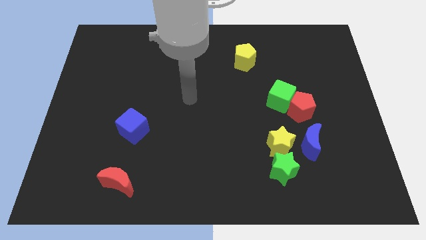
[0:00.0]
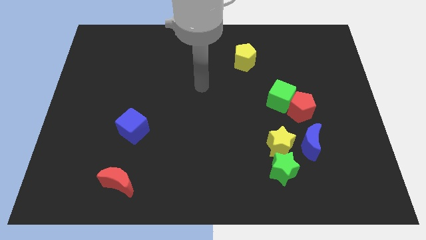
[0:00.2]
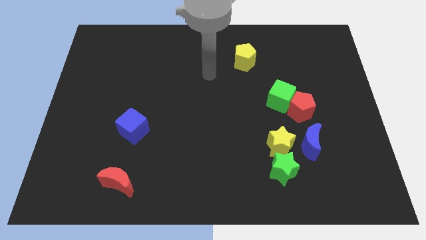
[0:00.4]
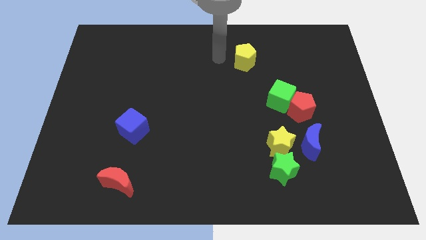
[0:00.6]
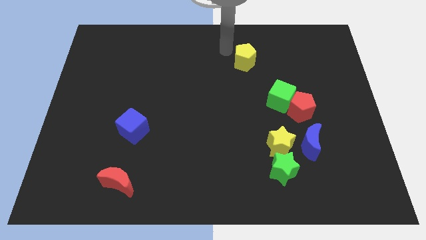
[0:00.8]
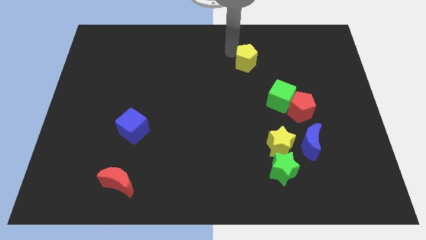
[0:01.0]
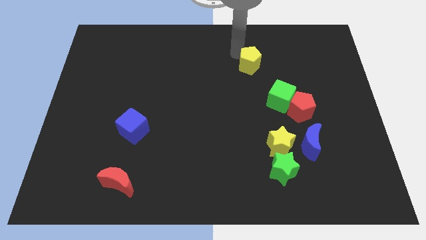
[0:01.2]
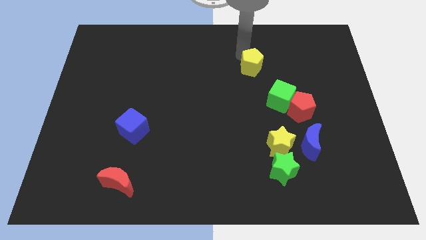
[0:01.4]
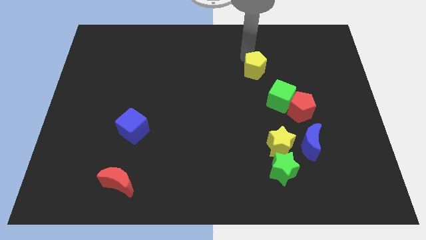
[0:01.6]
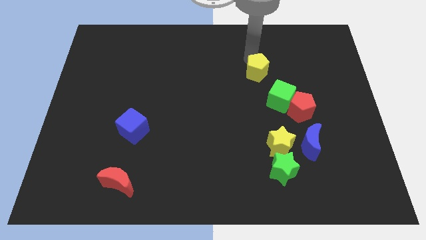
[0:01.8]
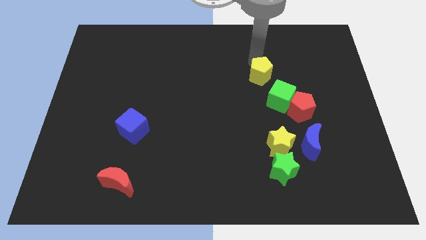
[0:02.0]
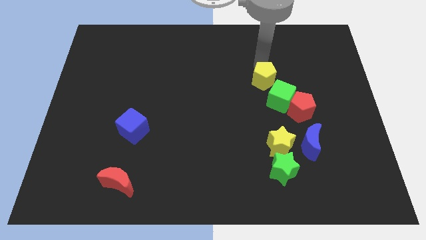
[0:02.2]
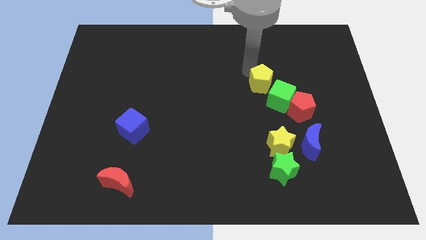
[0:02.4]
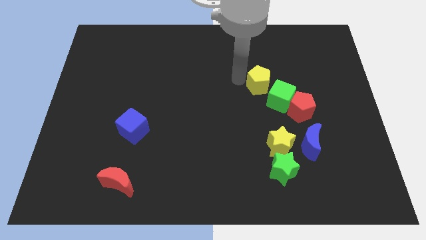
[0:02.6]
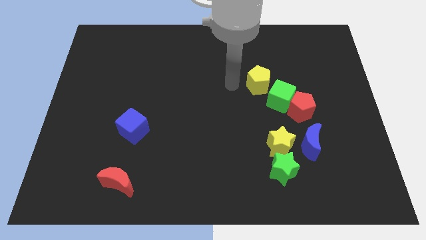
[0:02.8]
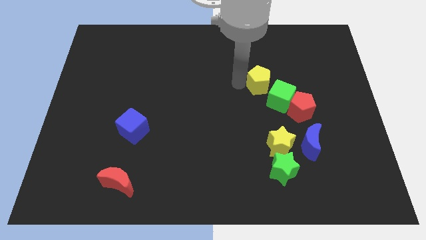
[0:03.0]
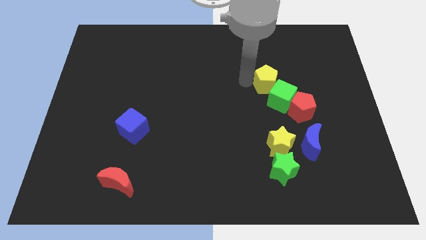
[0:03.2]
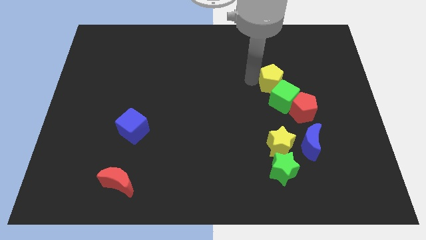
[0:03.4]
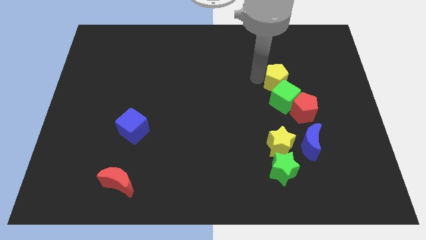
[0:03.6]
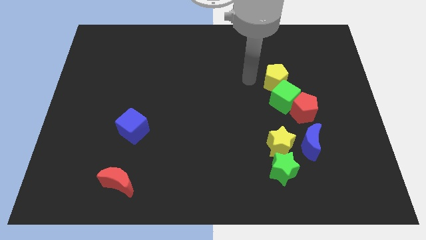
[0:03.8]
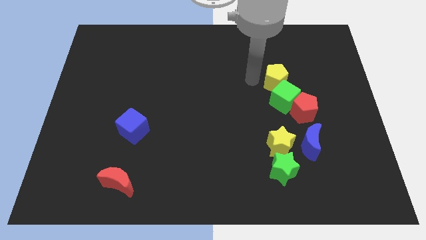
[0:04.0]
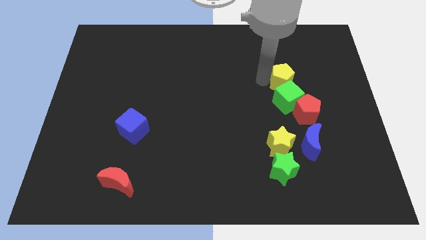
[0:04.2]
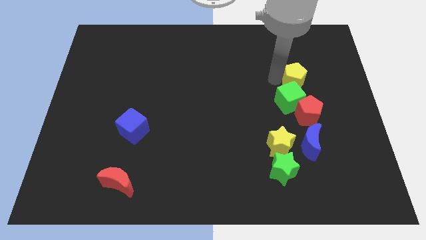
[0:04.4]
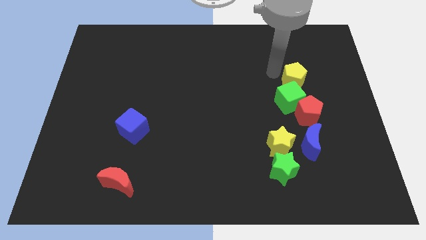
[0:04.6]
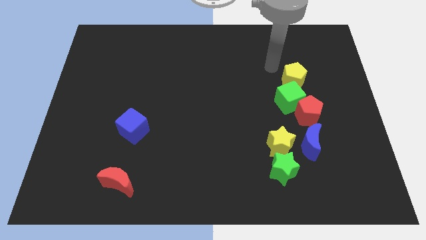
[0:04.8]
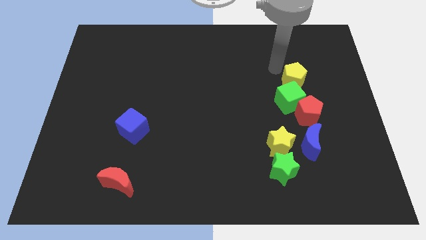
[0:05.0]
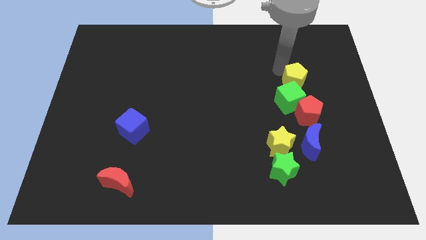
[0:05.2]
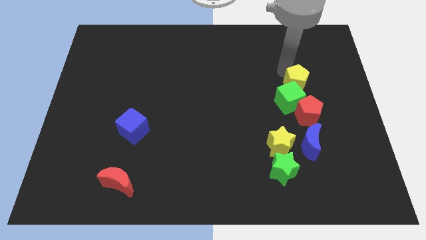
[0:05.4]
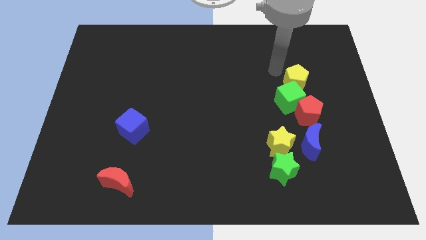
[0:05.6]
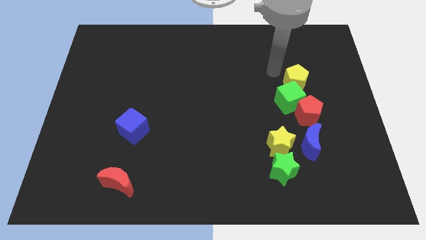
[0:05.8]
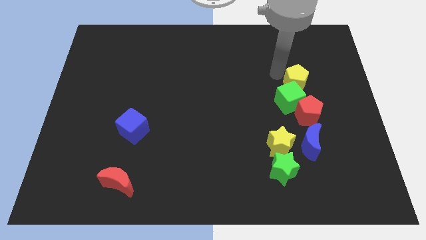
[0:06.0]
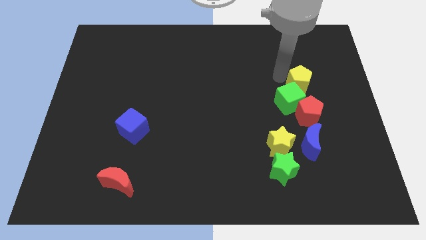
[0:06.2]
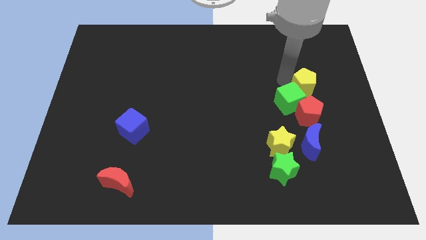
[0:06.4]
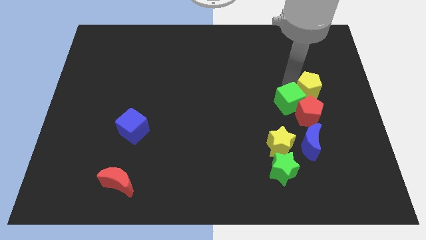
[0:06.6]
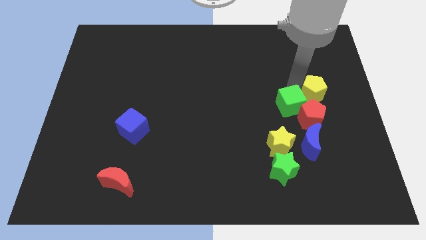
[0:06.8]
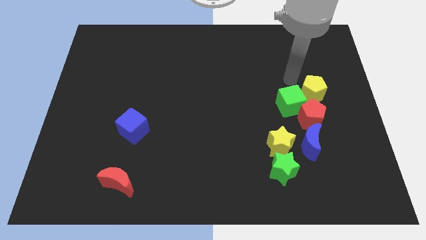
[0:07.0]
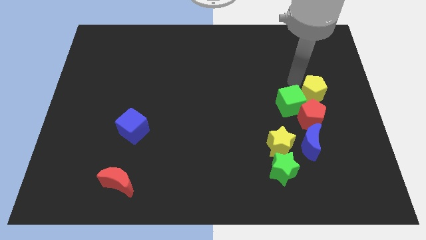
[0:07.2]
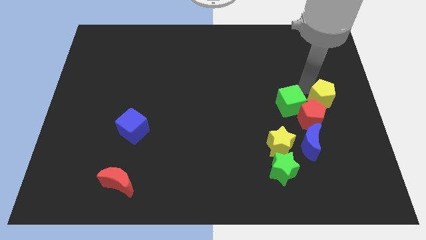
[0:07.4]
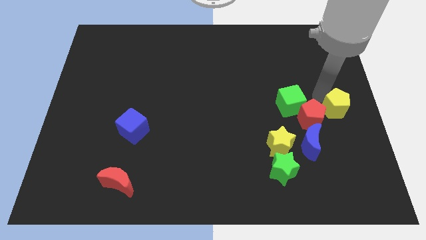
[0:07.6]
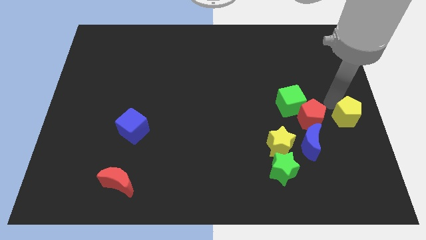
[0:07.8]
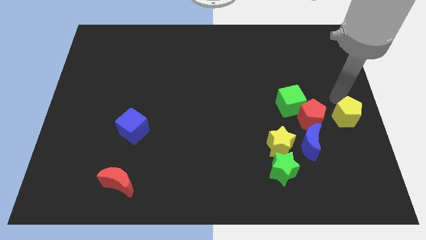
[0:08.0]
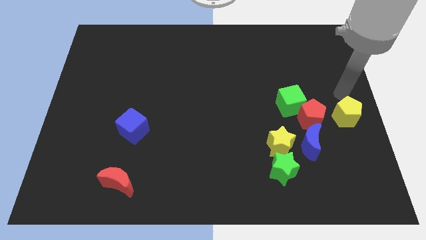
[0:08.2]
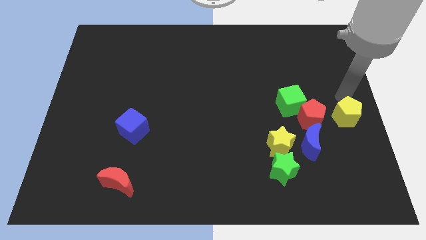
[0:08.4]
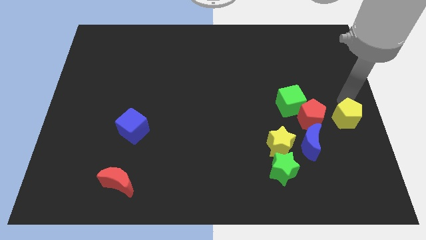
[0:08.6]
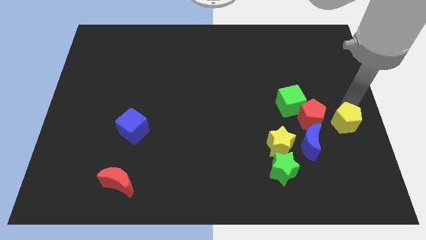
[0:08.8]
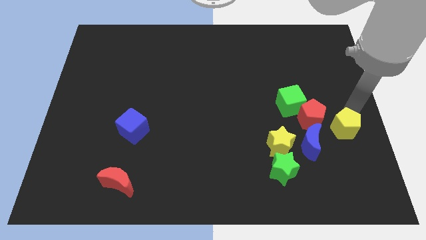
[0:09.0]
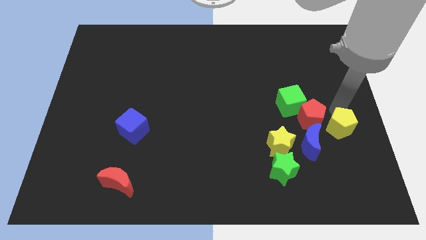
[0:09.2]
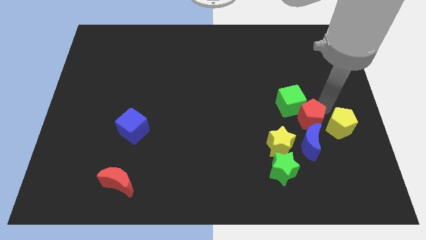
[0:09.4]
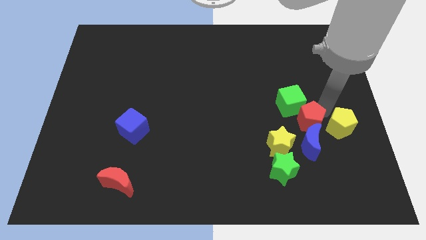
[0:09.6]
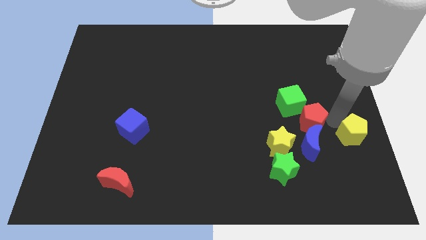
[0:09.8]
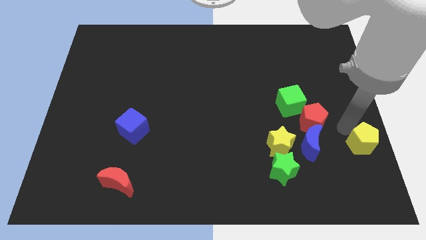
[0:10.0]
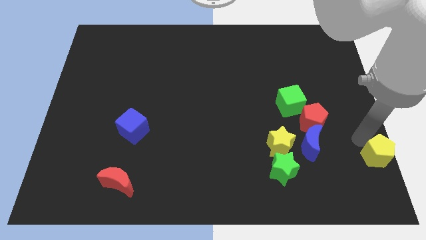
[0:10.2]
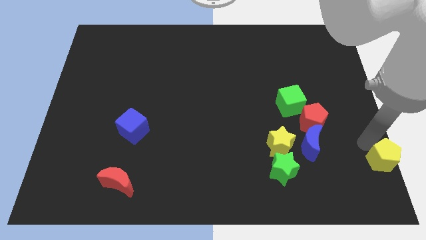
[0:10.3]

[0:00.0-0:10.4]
push the yellow pentagon to the lower right corner

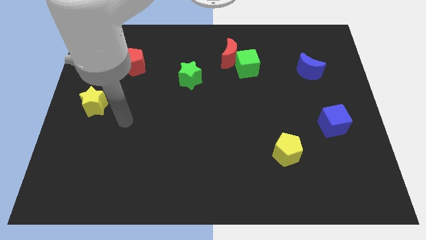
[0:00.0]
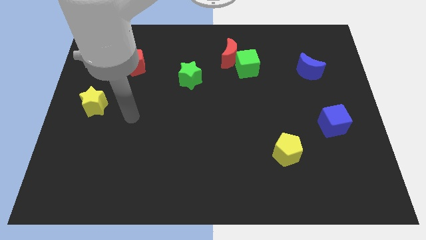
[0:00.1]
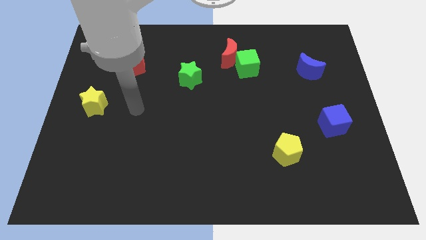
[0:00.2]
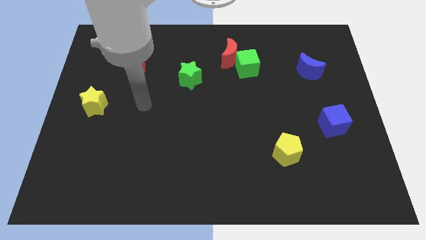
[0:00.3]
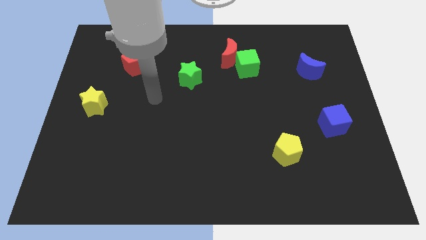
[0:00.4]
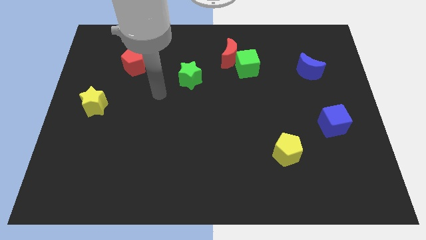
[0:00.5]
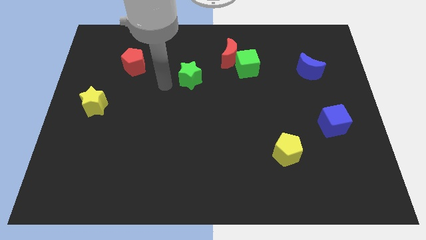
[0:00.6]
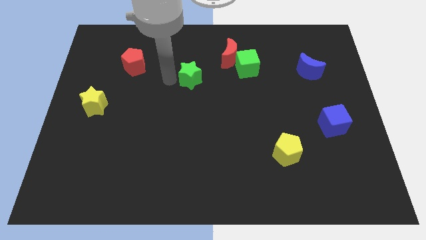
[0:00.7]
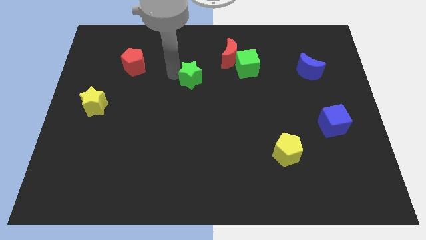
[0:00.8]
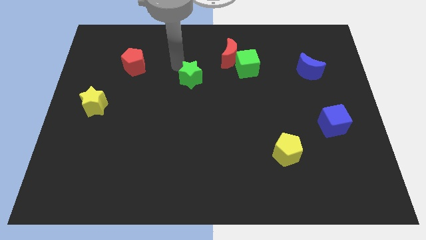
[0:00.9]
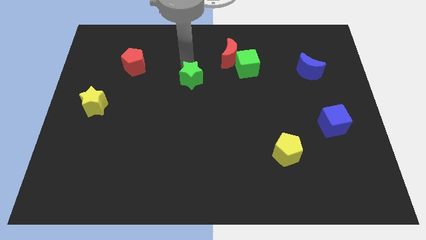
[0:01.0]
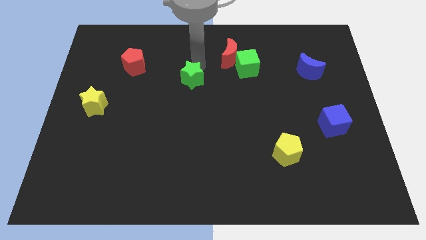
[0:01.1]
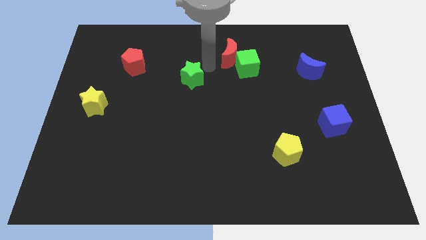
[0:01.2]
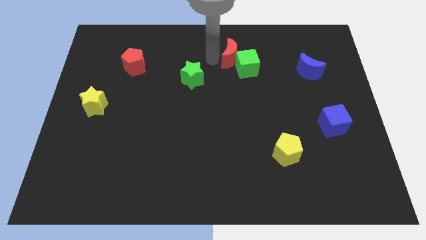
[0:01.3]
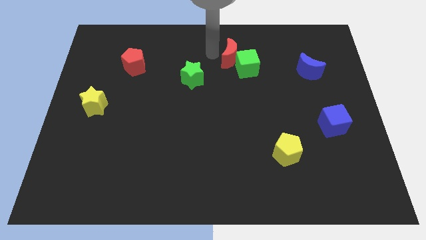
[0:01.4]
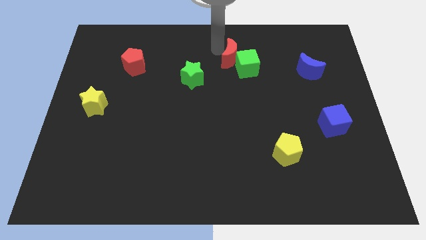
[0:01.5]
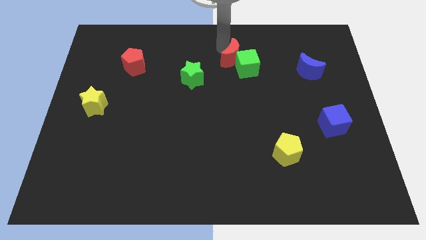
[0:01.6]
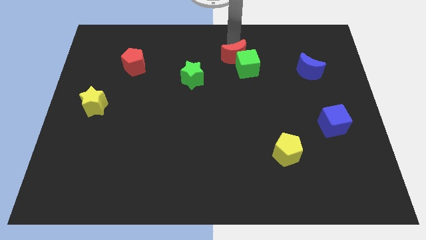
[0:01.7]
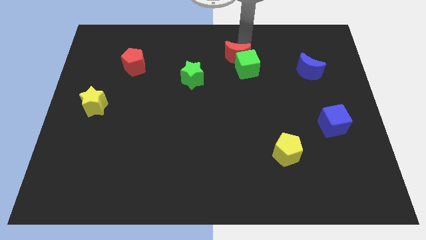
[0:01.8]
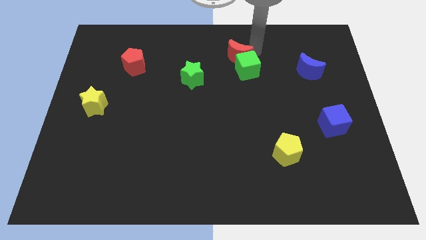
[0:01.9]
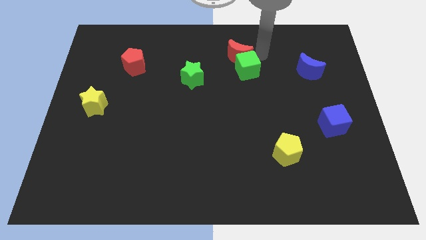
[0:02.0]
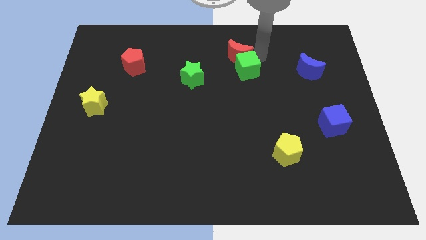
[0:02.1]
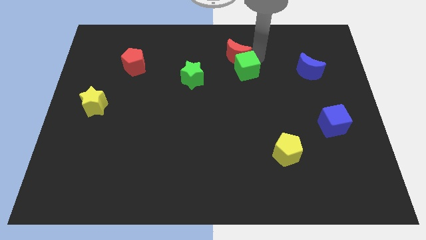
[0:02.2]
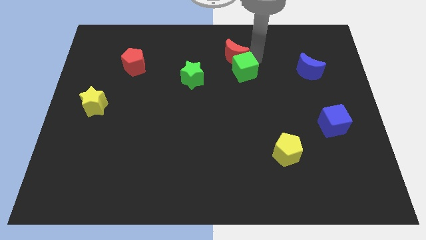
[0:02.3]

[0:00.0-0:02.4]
put the green cube to the center of the board

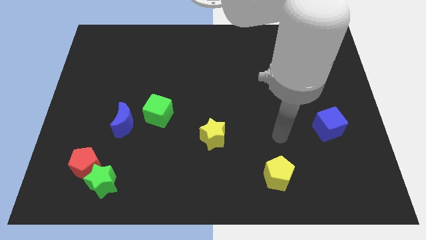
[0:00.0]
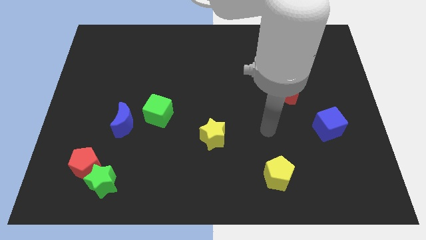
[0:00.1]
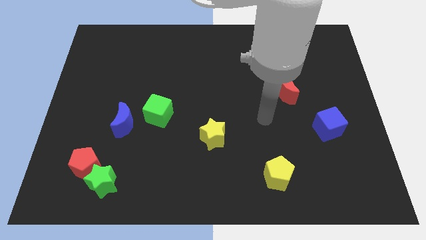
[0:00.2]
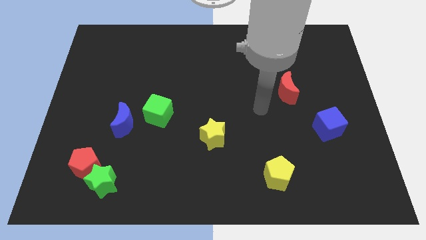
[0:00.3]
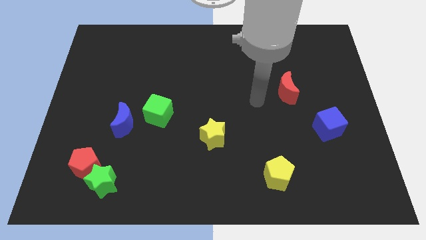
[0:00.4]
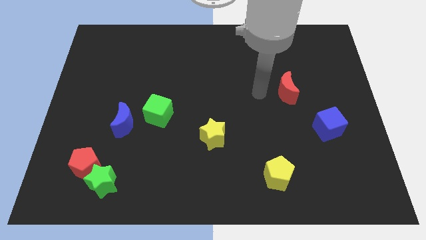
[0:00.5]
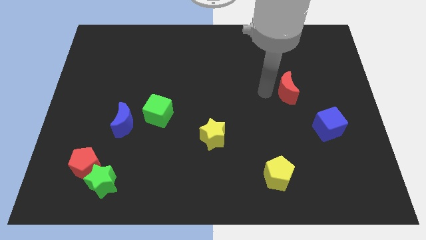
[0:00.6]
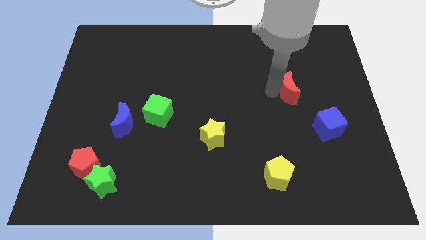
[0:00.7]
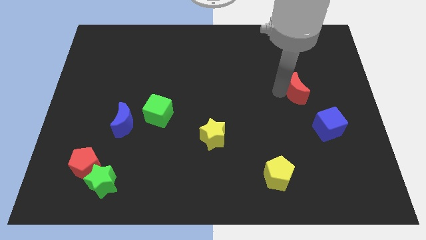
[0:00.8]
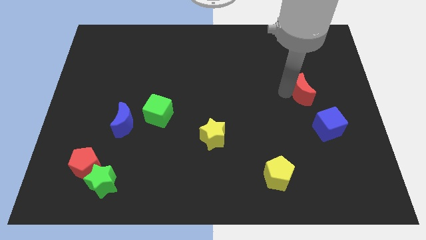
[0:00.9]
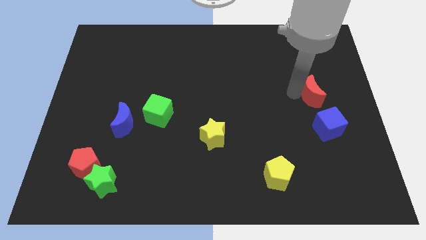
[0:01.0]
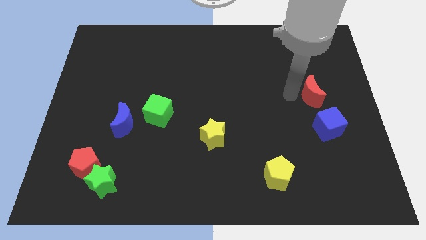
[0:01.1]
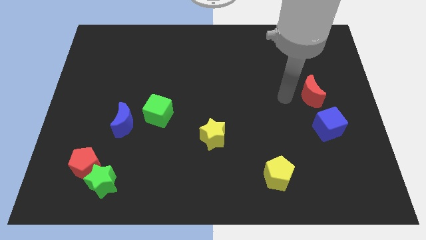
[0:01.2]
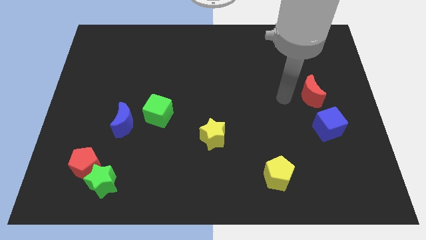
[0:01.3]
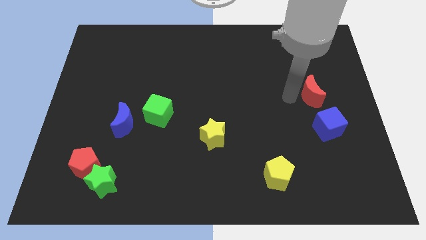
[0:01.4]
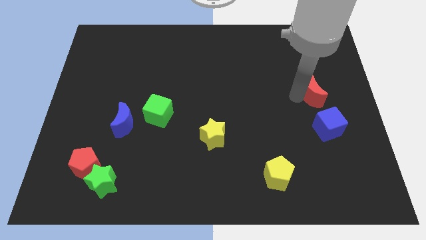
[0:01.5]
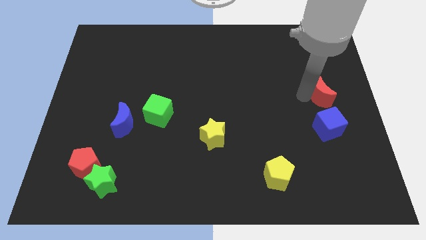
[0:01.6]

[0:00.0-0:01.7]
slide the red moon to the right side of the board
